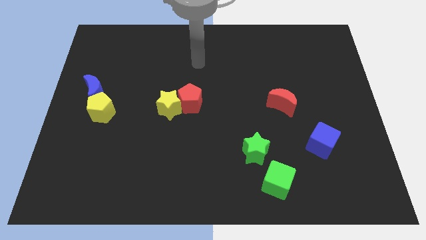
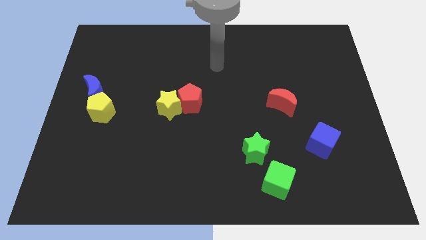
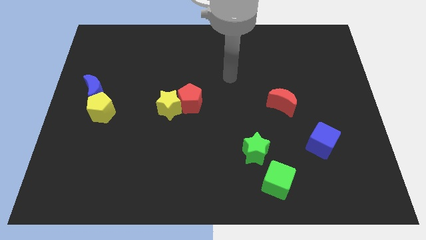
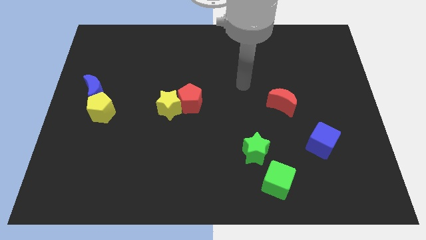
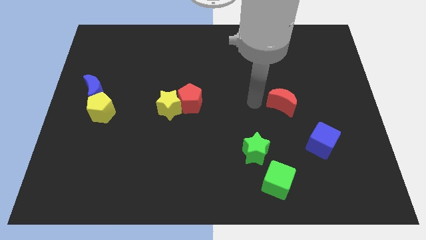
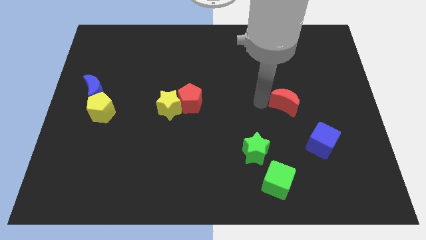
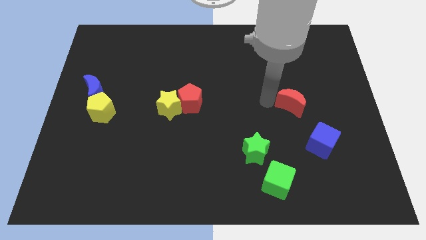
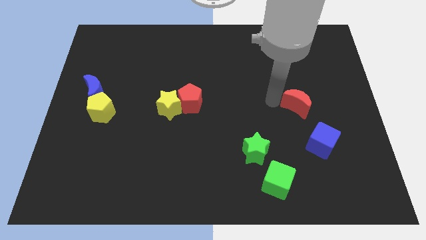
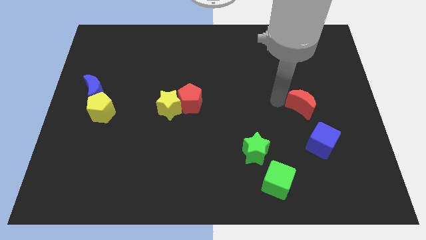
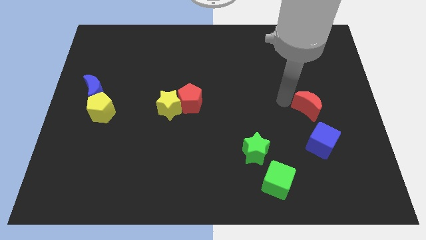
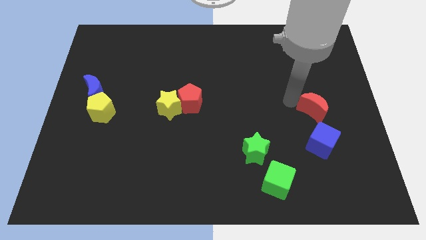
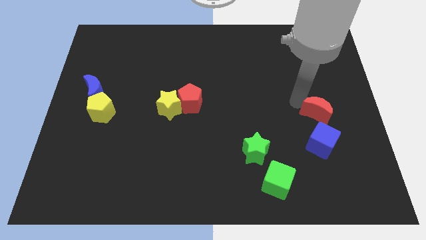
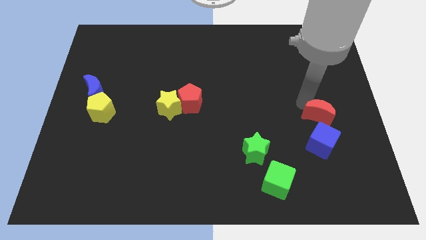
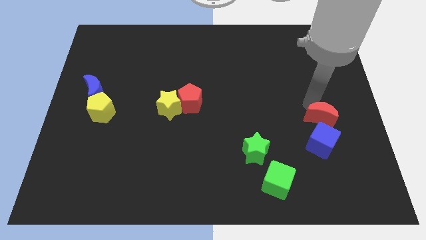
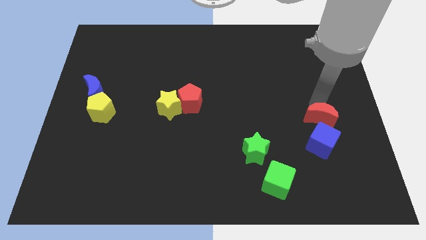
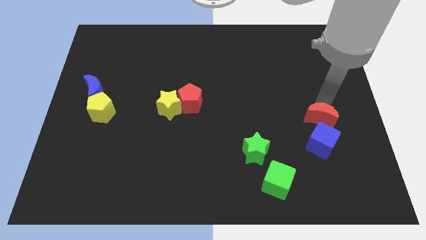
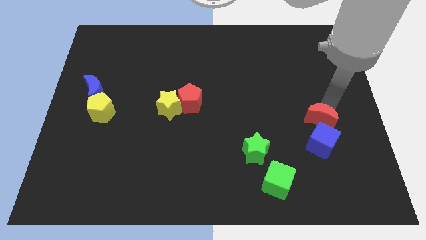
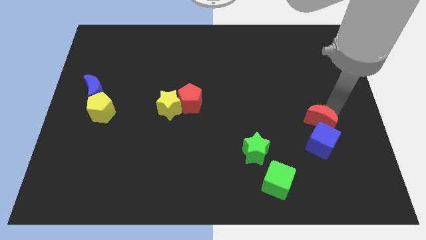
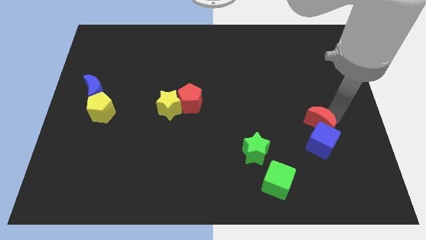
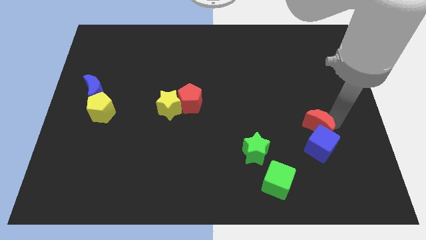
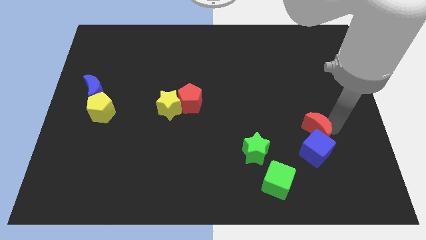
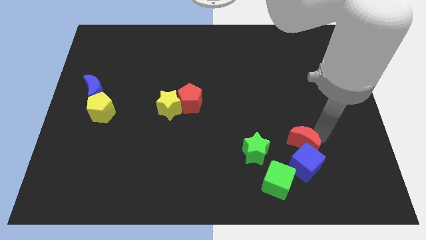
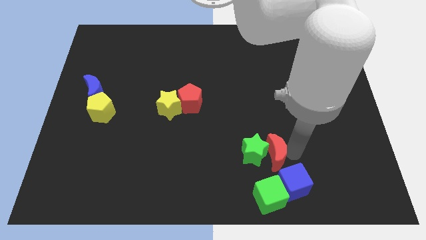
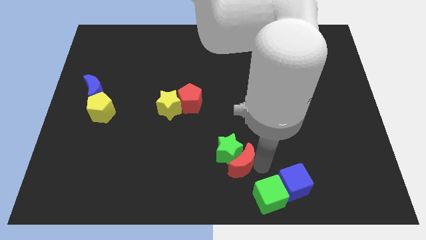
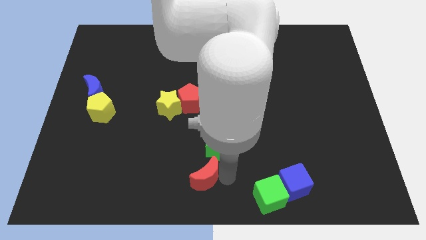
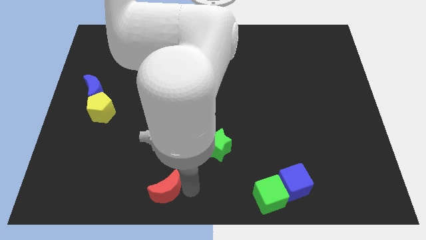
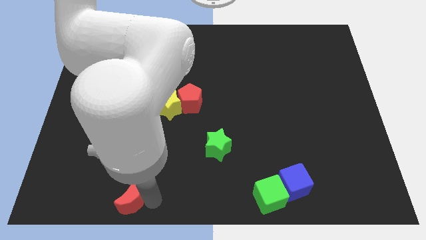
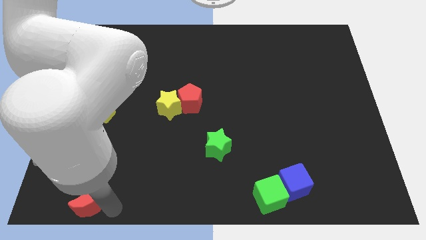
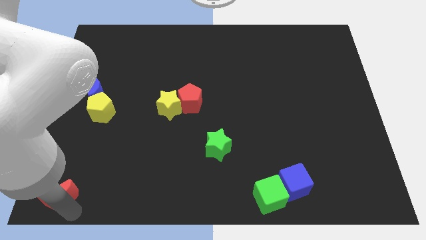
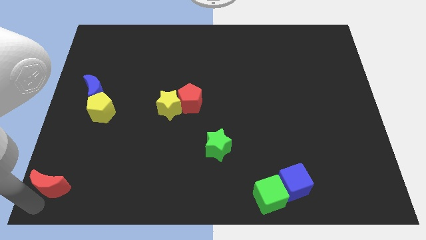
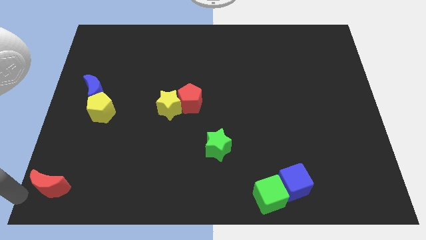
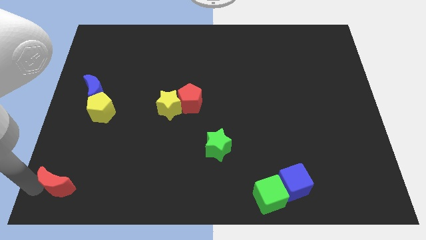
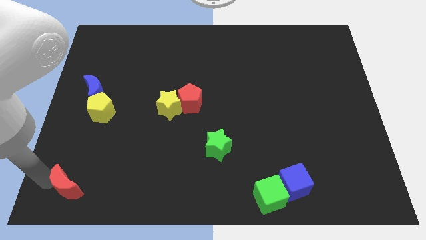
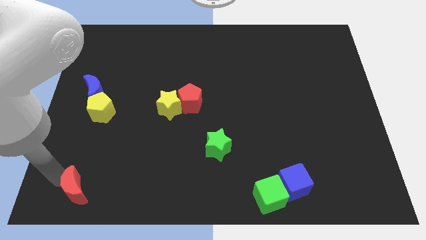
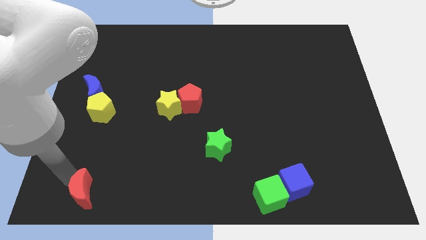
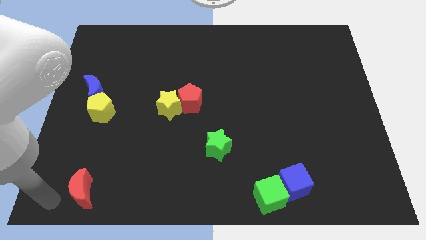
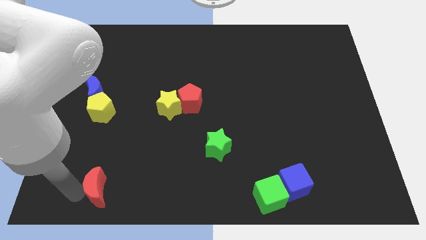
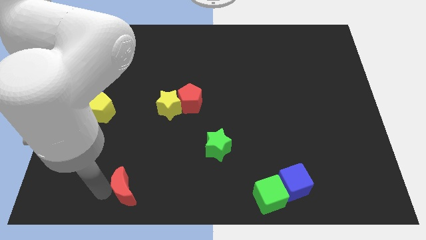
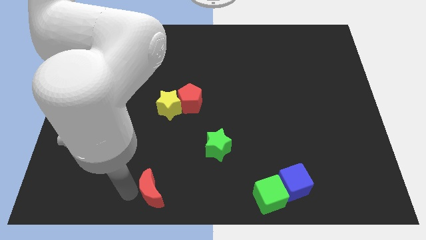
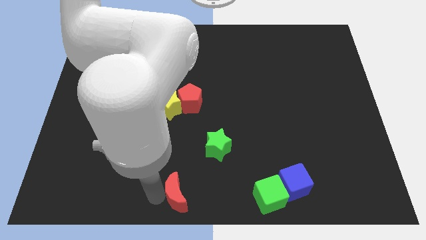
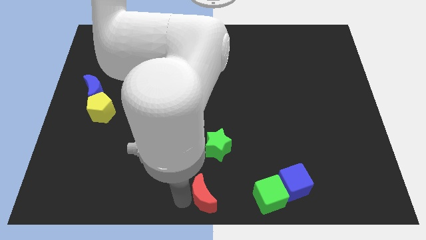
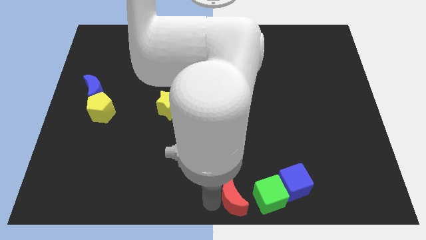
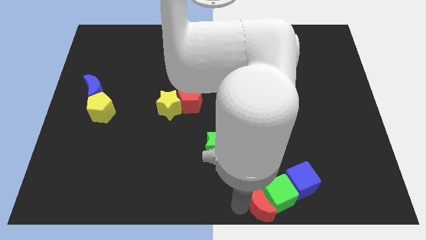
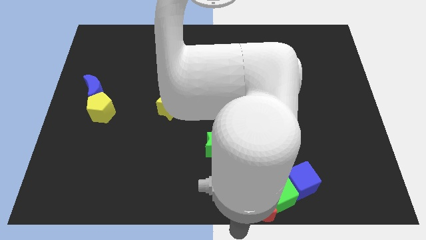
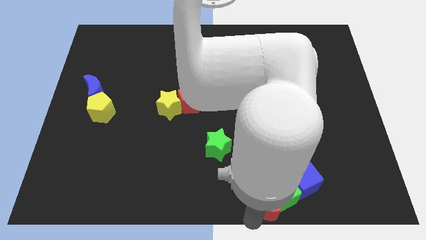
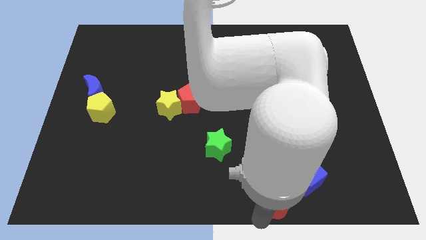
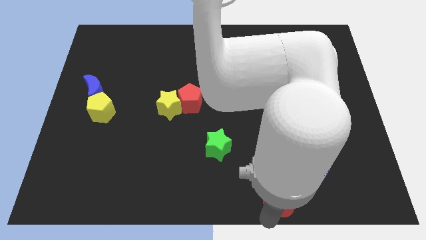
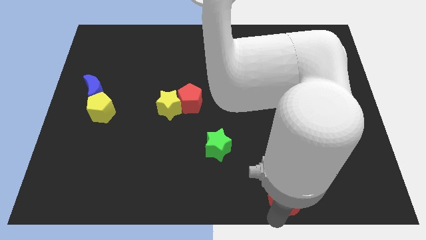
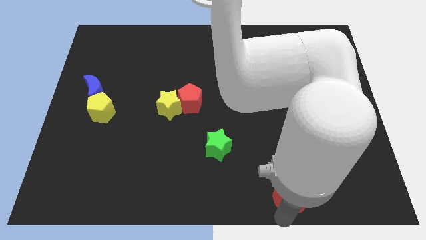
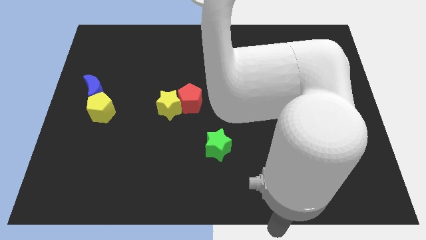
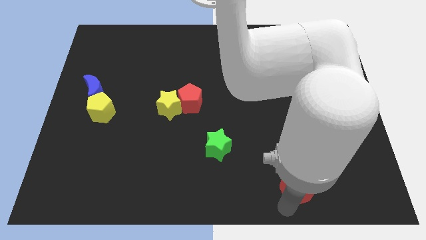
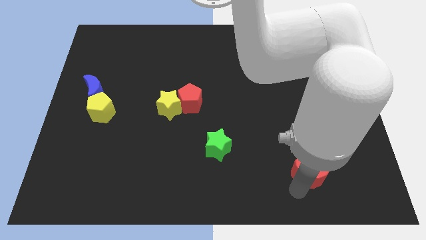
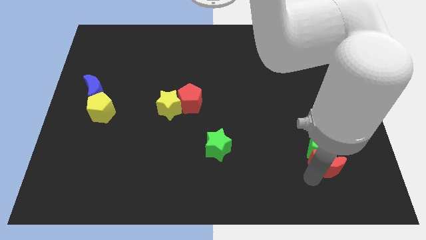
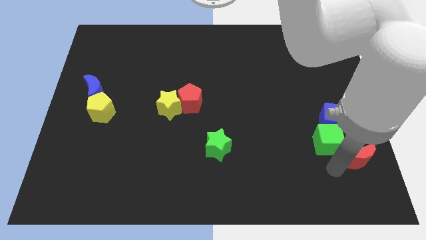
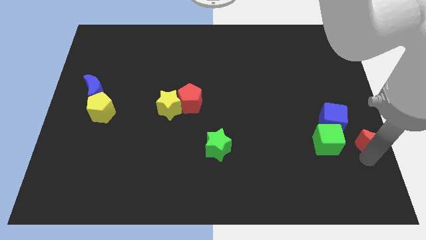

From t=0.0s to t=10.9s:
move the red moon to the right side of the board

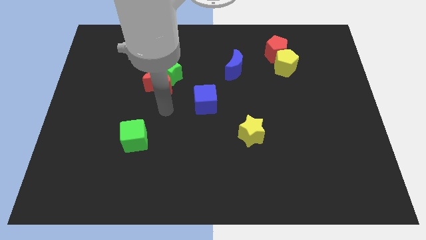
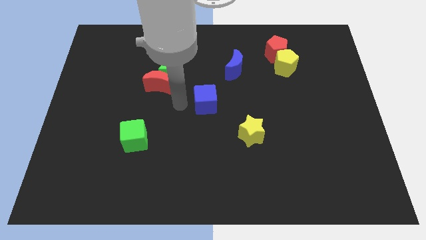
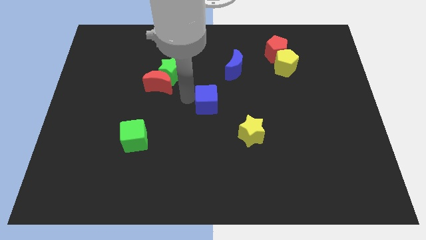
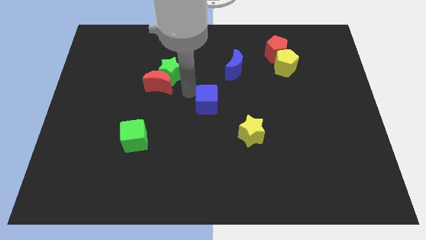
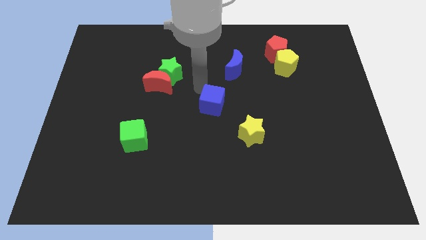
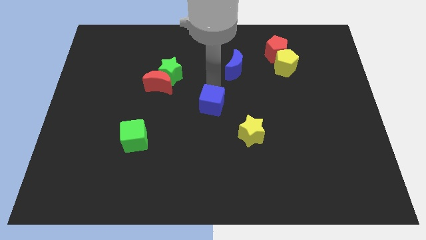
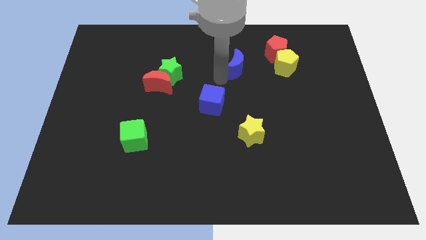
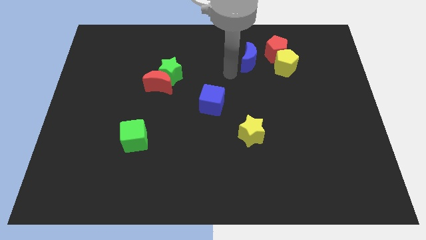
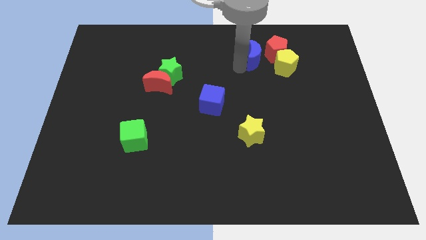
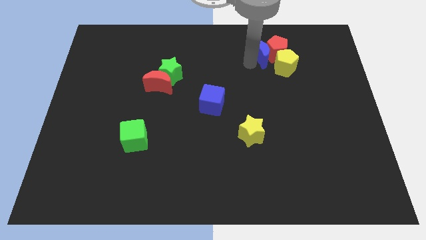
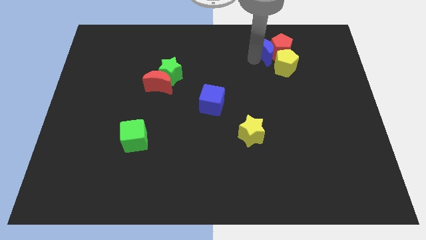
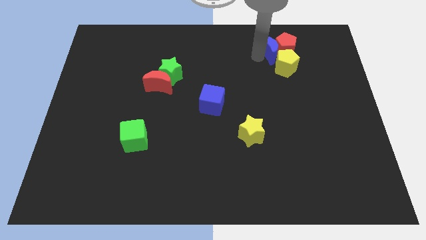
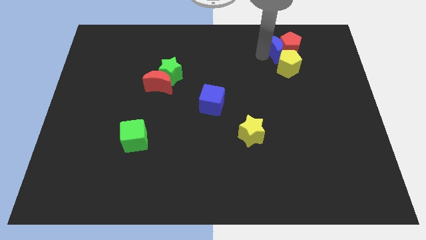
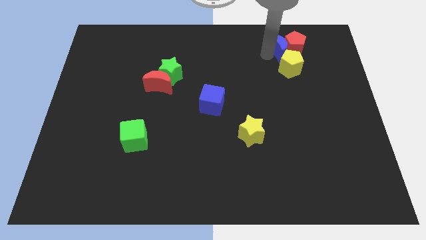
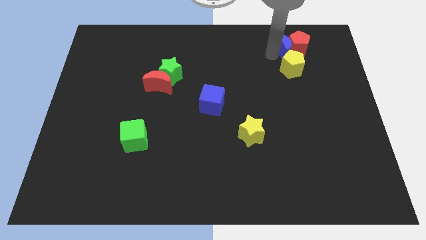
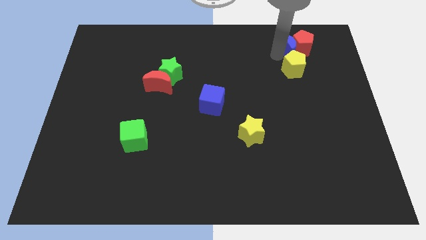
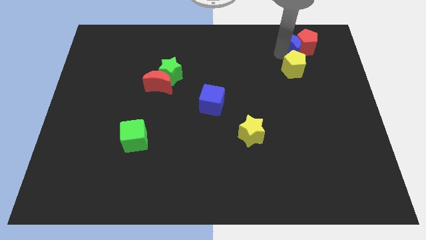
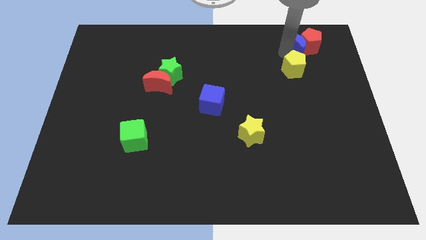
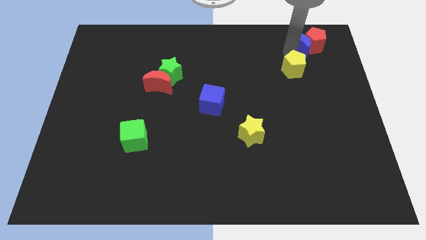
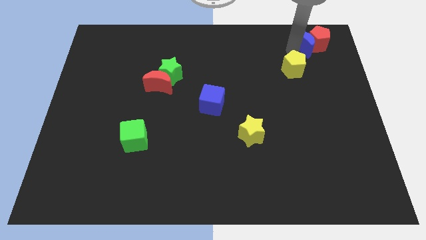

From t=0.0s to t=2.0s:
put the red pentagon to the upper right corner
